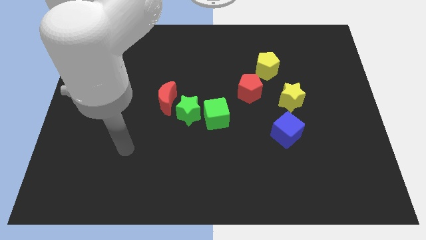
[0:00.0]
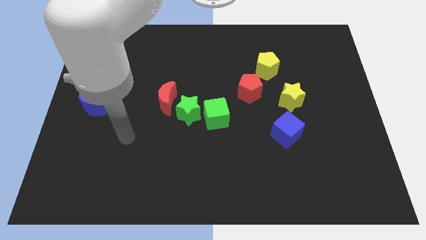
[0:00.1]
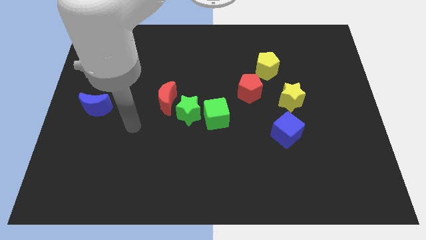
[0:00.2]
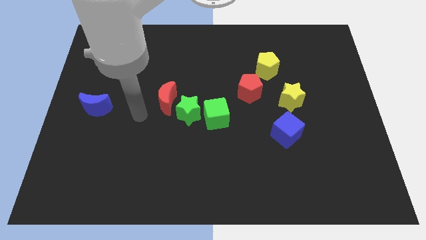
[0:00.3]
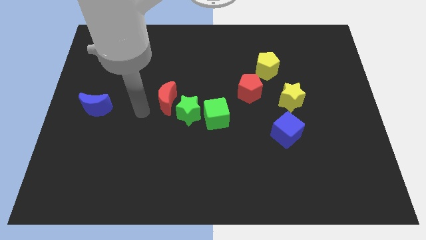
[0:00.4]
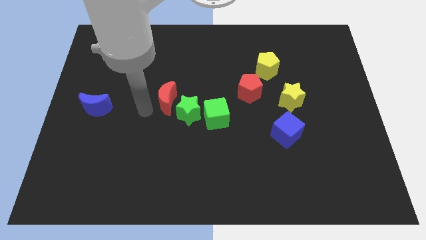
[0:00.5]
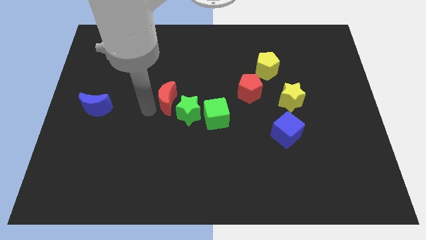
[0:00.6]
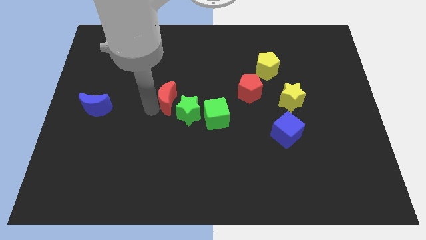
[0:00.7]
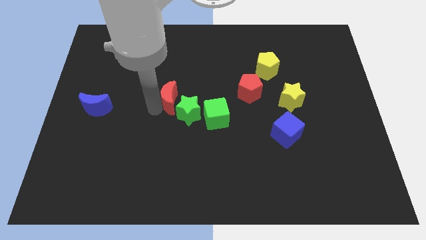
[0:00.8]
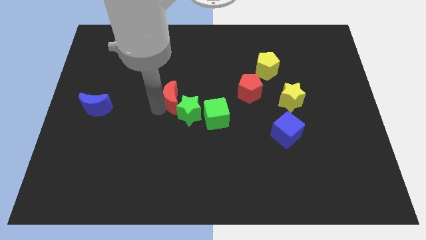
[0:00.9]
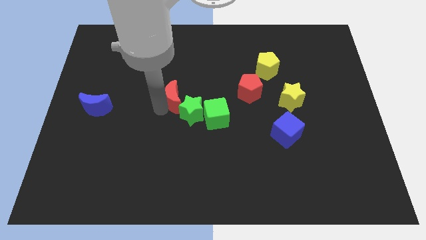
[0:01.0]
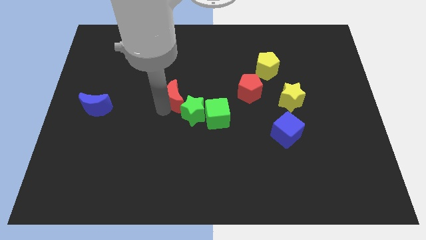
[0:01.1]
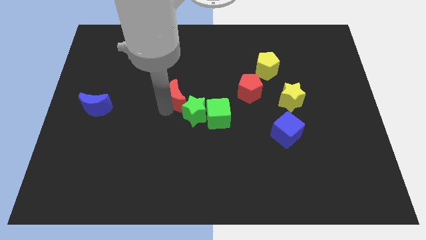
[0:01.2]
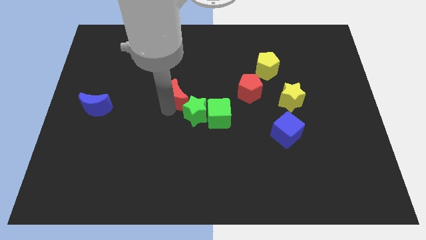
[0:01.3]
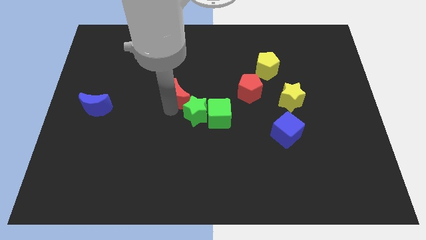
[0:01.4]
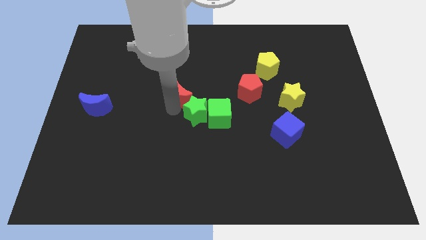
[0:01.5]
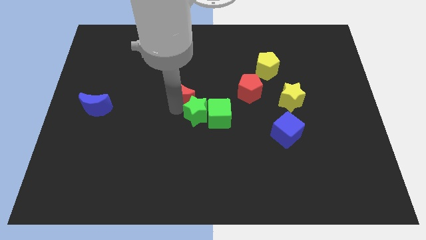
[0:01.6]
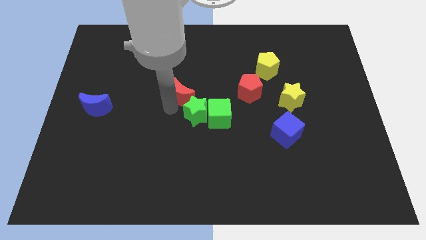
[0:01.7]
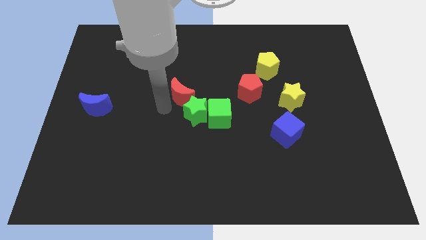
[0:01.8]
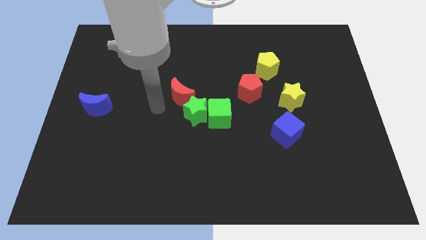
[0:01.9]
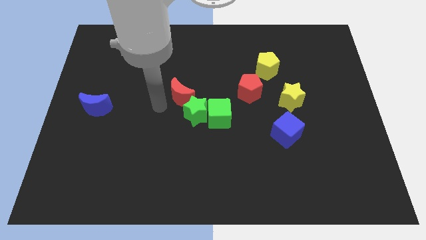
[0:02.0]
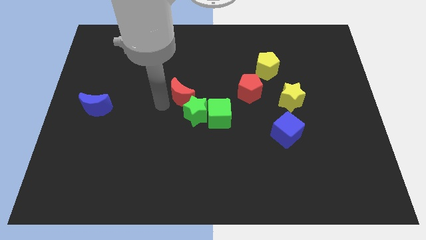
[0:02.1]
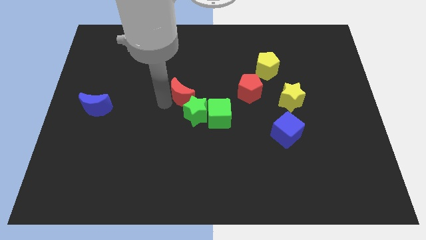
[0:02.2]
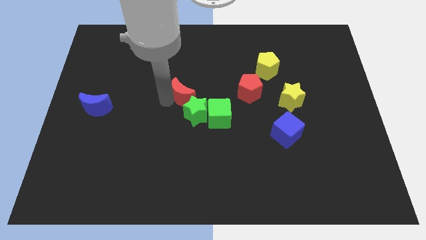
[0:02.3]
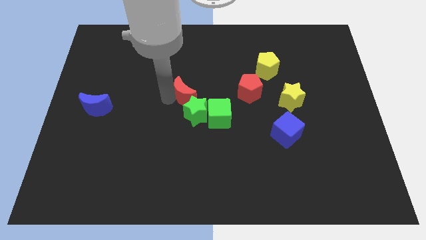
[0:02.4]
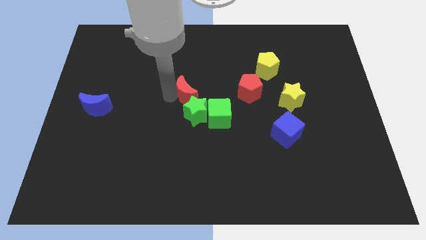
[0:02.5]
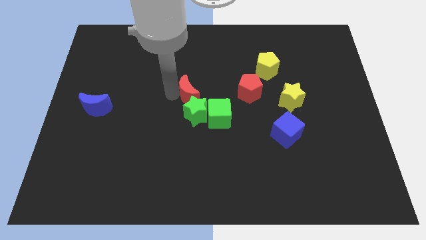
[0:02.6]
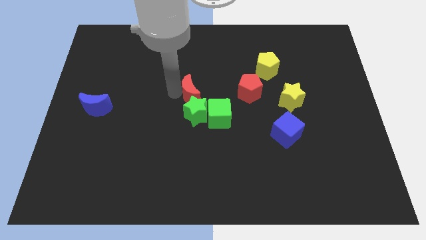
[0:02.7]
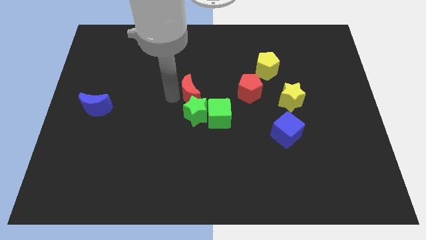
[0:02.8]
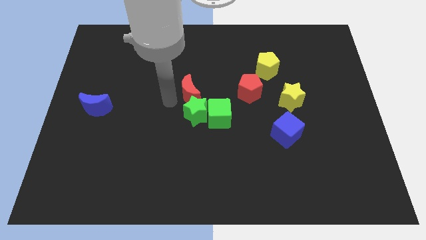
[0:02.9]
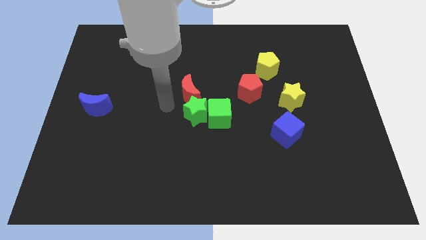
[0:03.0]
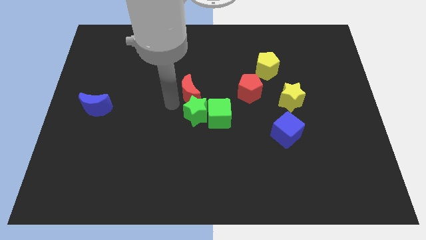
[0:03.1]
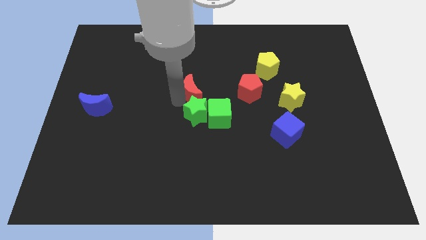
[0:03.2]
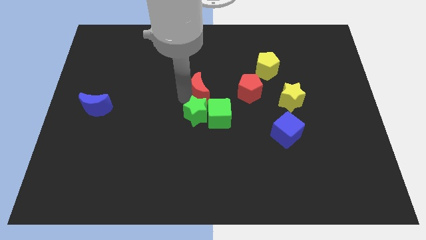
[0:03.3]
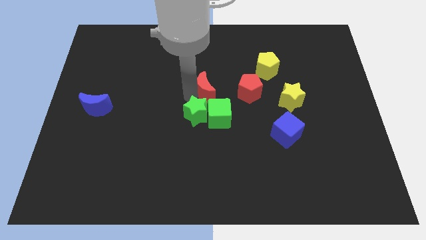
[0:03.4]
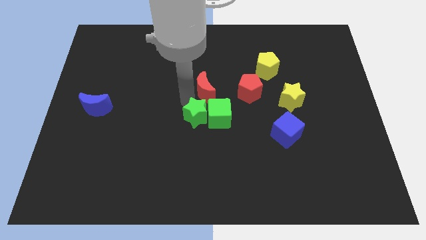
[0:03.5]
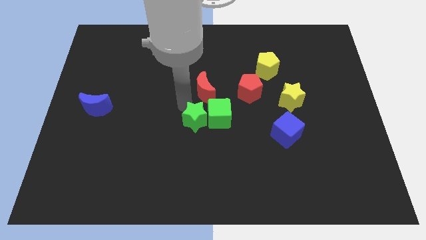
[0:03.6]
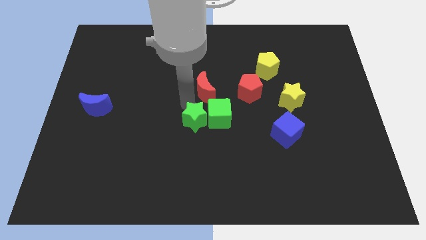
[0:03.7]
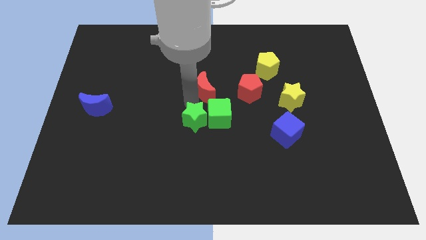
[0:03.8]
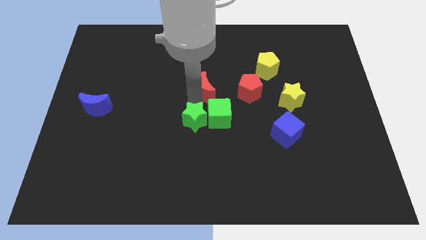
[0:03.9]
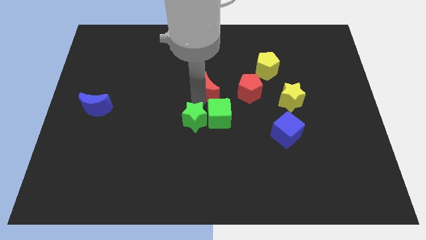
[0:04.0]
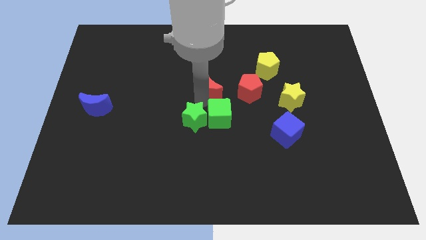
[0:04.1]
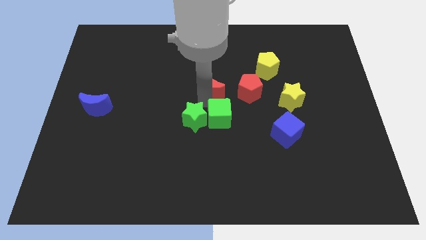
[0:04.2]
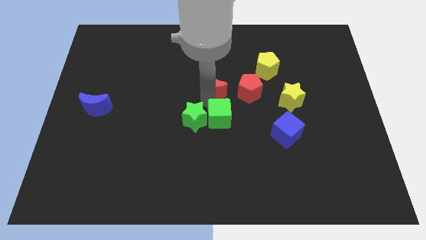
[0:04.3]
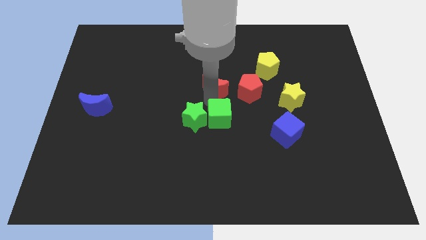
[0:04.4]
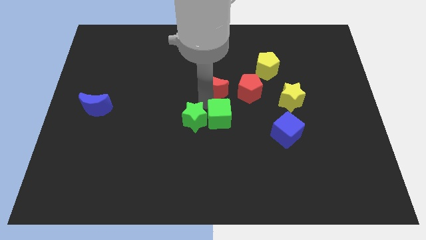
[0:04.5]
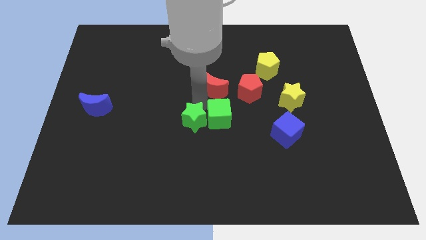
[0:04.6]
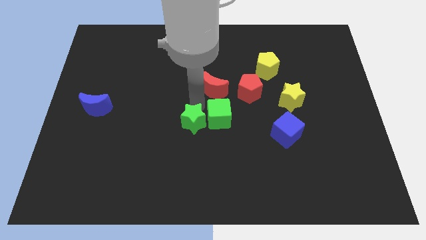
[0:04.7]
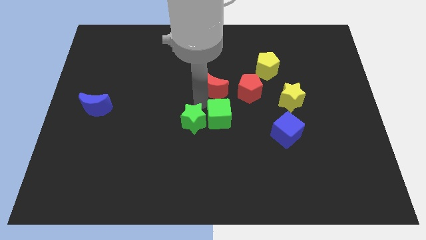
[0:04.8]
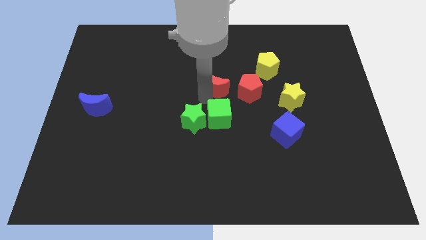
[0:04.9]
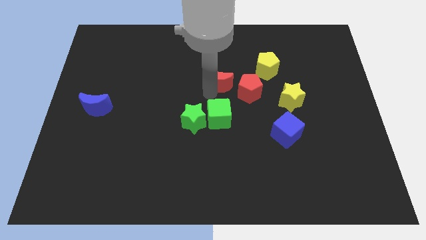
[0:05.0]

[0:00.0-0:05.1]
move the red moon to the top left side of the red pentagon

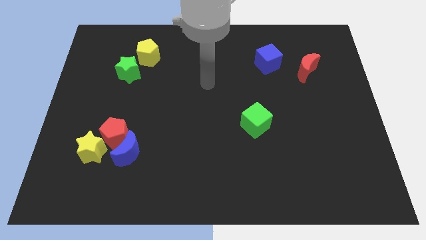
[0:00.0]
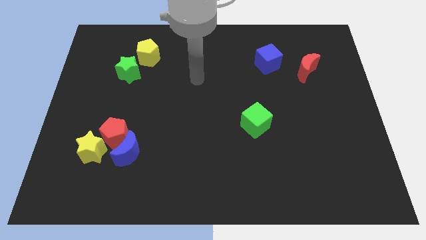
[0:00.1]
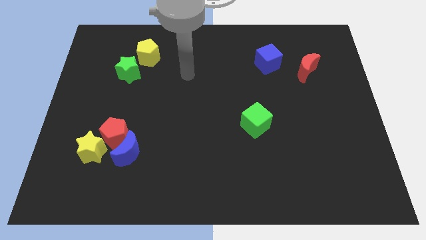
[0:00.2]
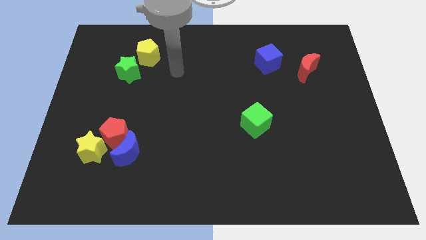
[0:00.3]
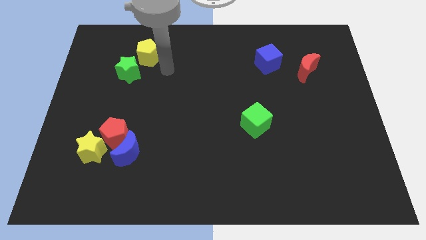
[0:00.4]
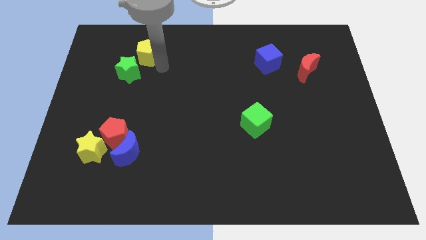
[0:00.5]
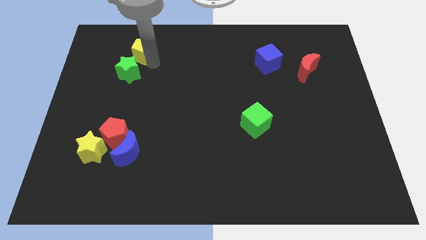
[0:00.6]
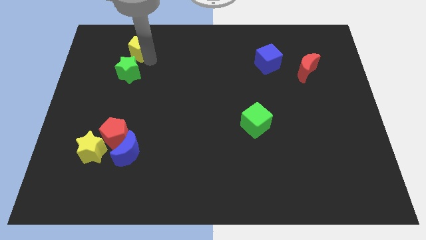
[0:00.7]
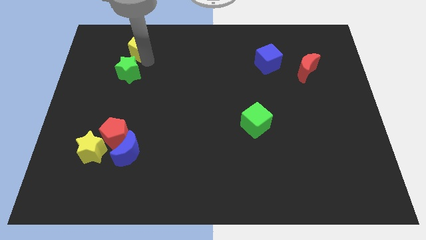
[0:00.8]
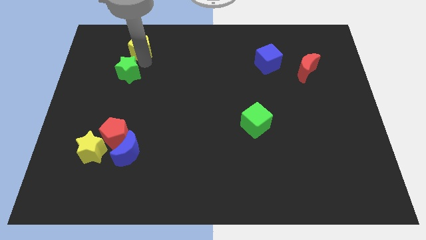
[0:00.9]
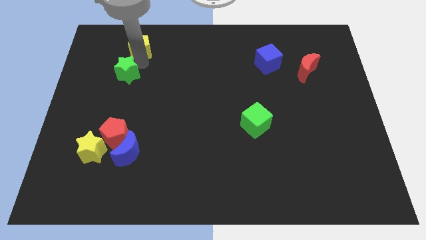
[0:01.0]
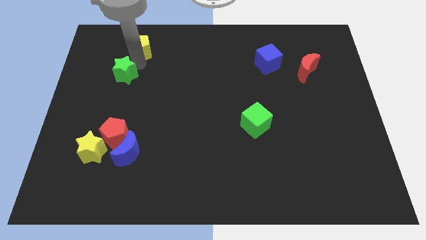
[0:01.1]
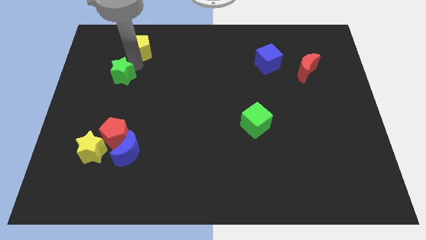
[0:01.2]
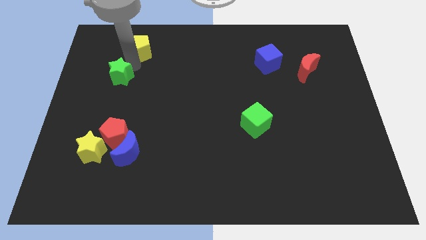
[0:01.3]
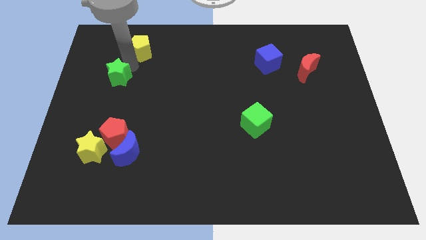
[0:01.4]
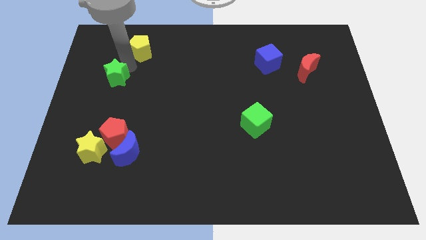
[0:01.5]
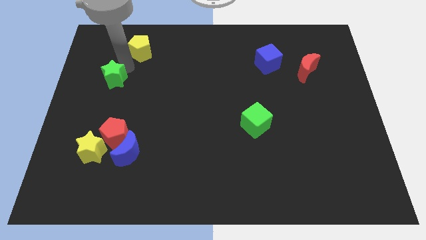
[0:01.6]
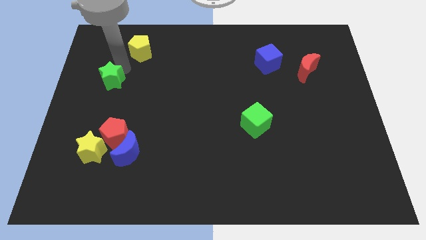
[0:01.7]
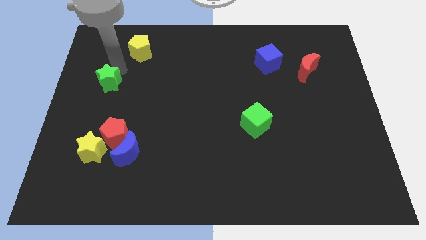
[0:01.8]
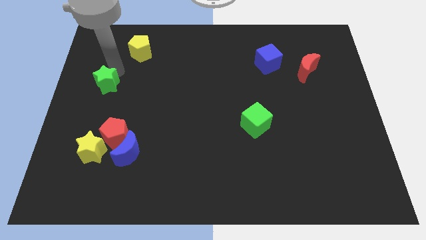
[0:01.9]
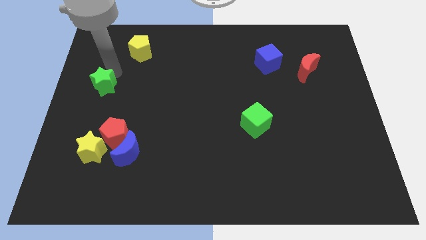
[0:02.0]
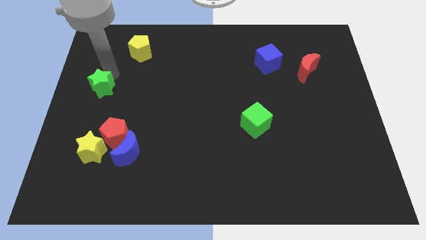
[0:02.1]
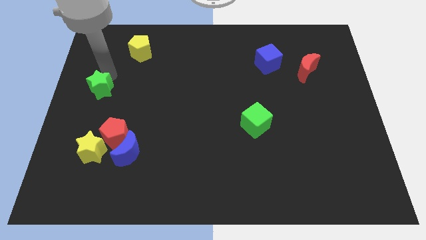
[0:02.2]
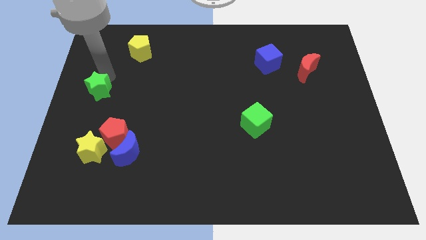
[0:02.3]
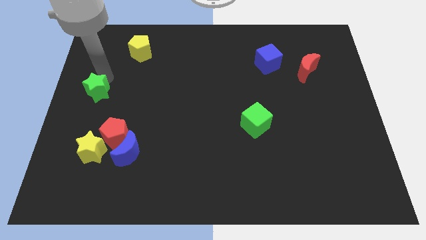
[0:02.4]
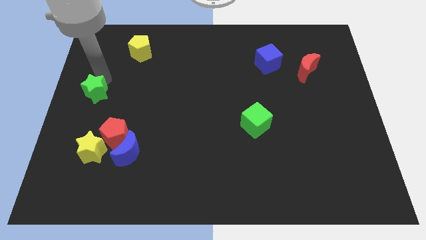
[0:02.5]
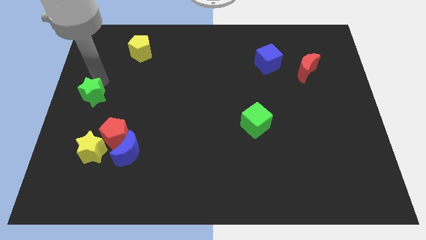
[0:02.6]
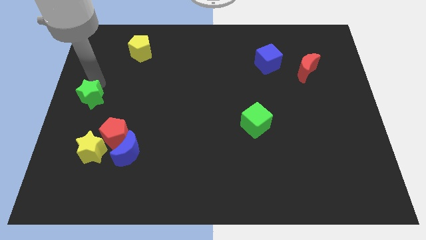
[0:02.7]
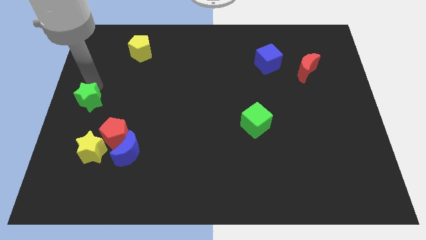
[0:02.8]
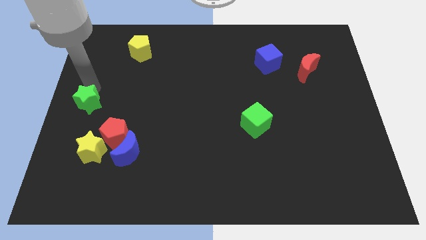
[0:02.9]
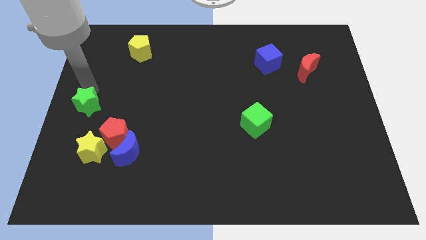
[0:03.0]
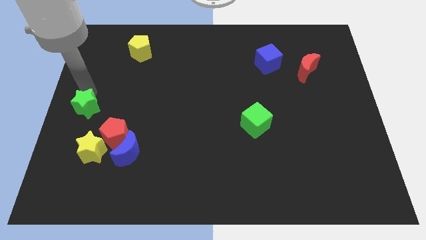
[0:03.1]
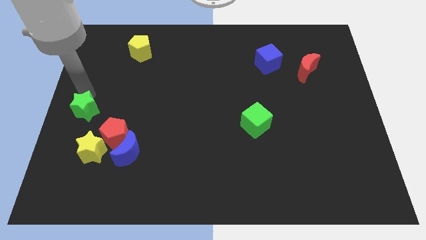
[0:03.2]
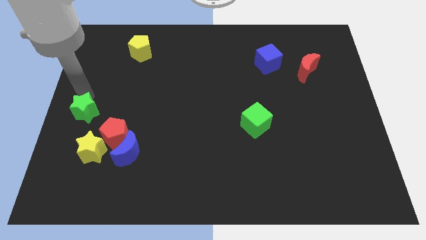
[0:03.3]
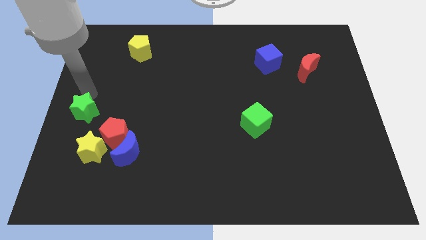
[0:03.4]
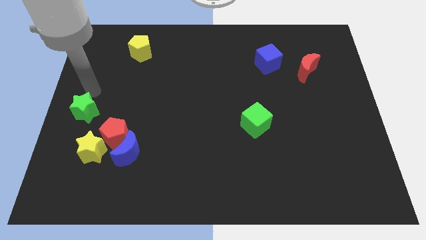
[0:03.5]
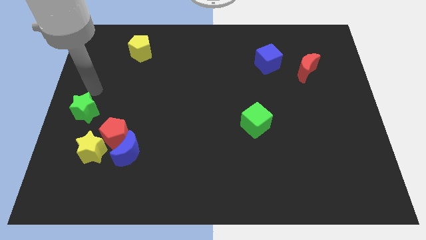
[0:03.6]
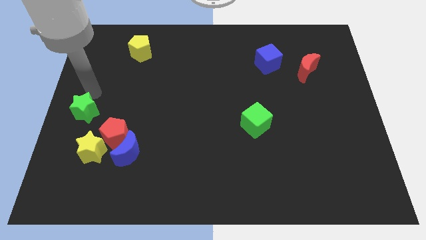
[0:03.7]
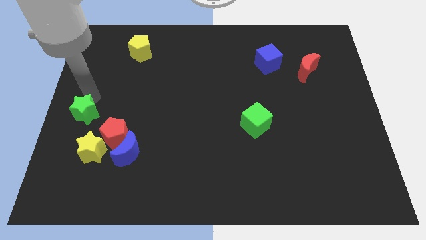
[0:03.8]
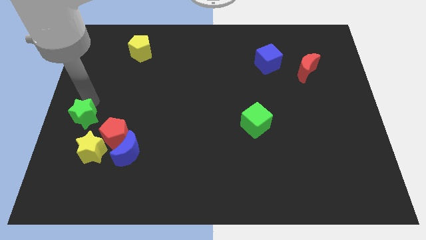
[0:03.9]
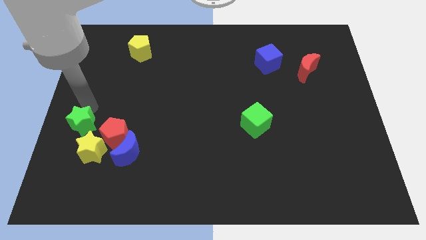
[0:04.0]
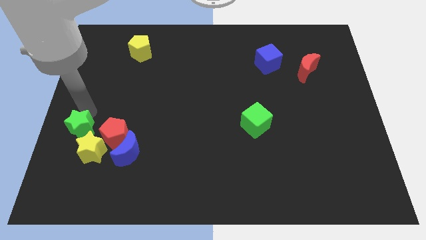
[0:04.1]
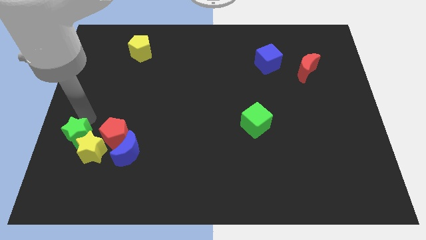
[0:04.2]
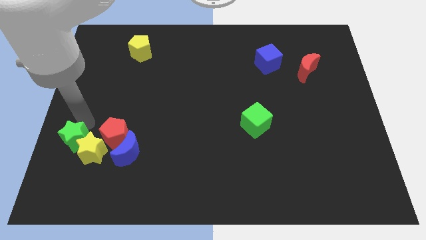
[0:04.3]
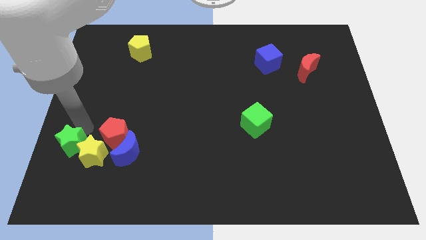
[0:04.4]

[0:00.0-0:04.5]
move the green star to the bottom left of the red pentagon
